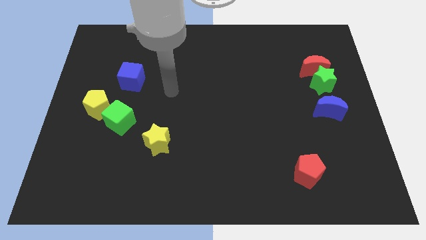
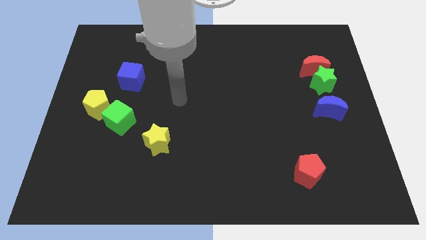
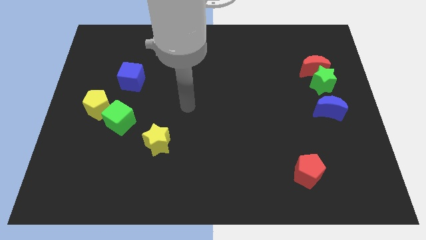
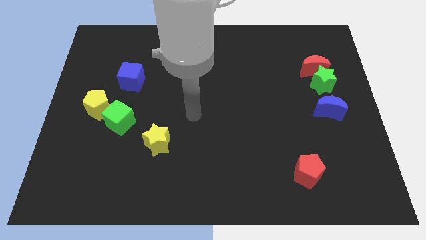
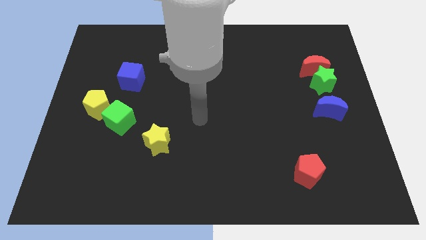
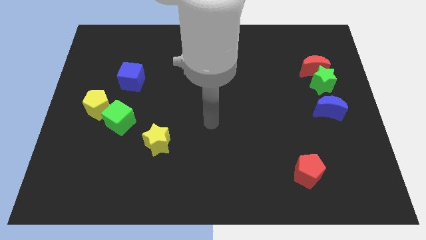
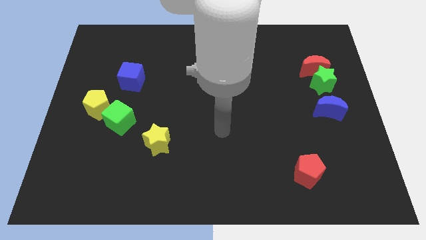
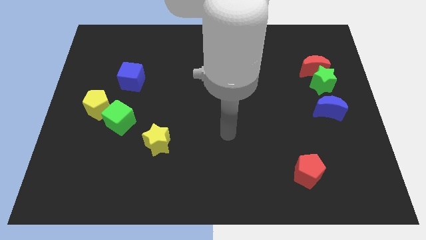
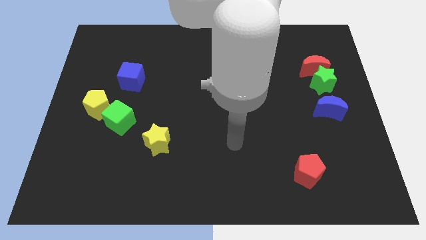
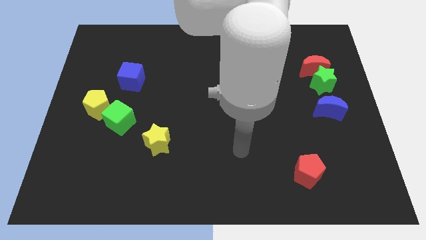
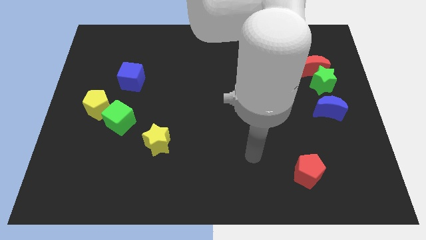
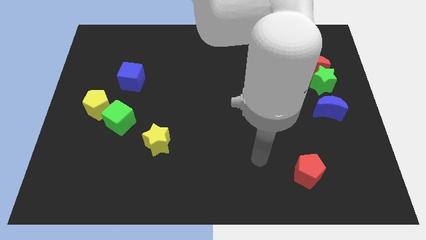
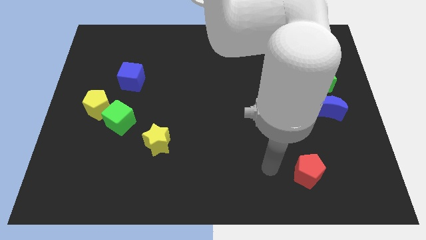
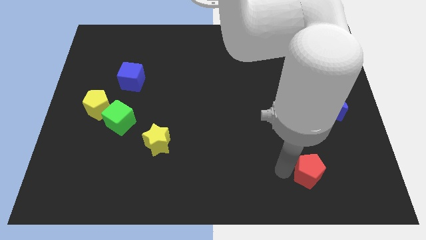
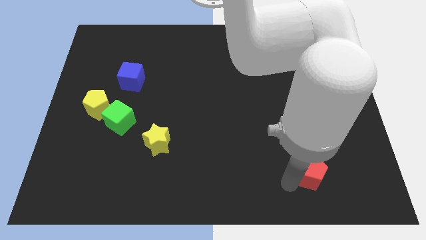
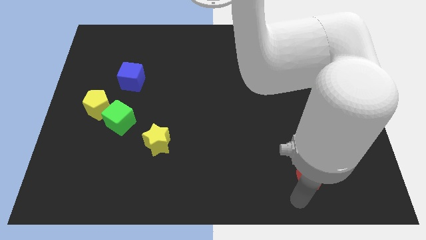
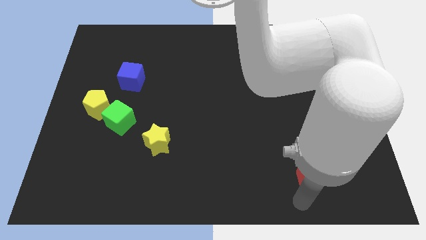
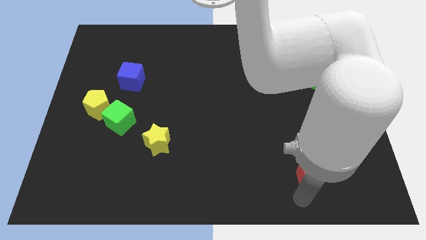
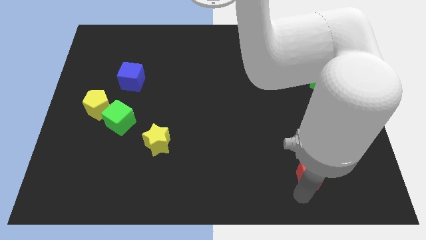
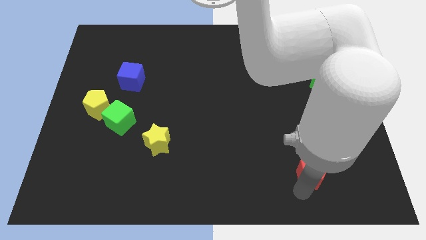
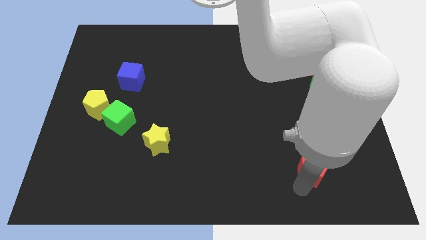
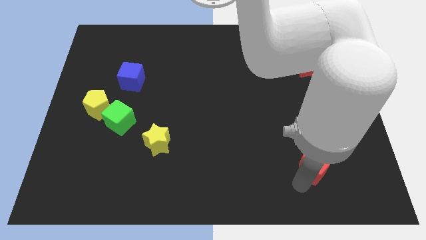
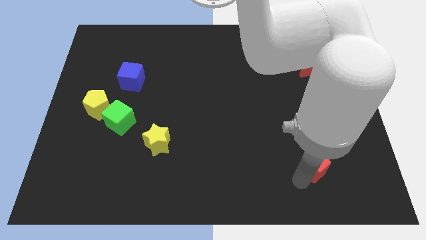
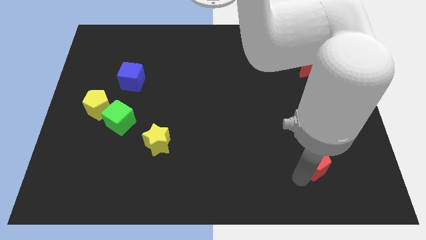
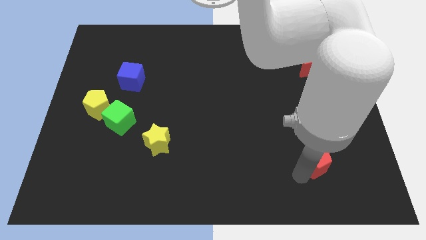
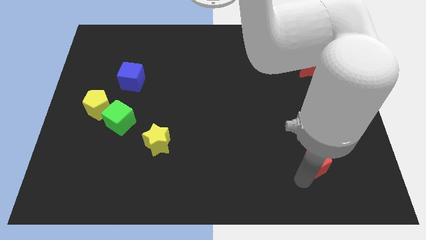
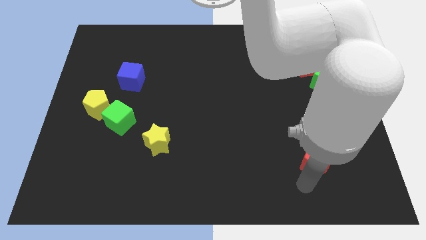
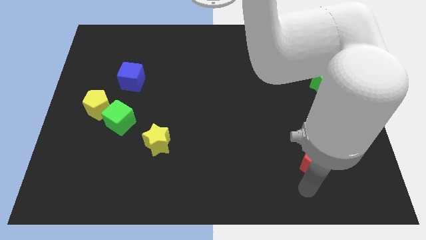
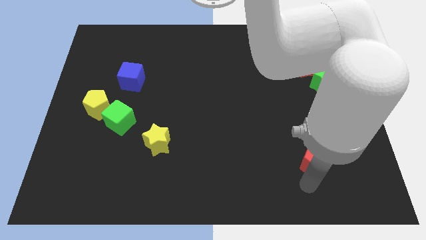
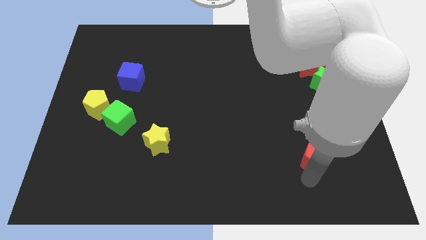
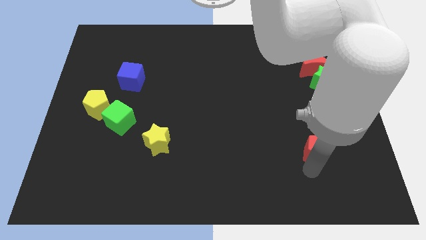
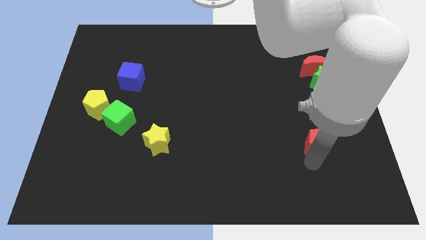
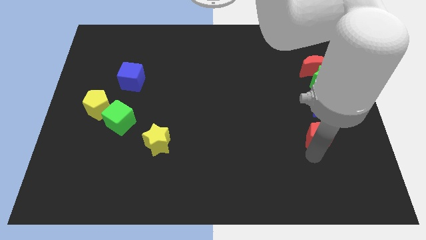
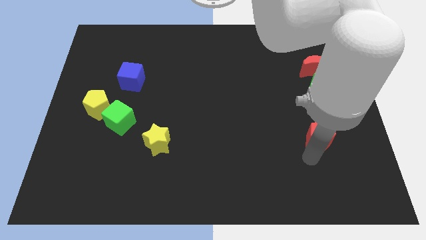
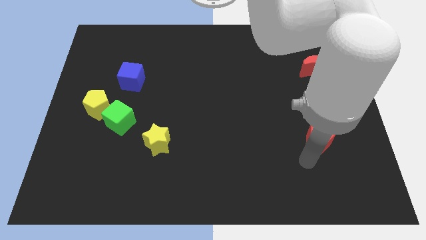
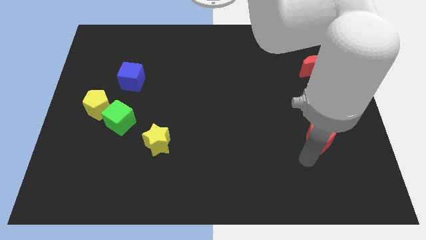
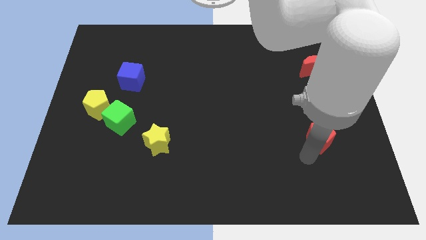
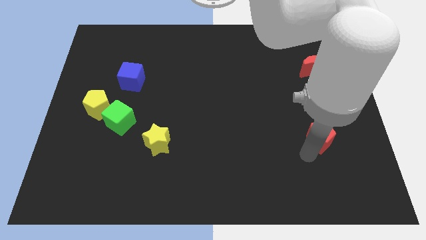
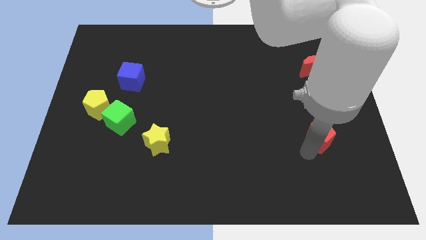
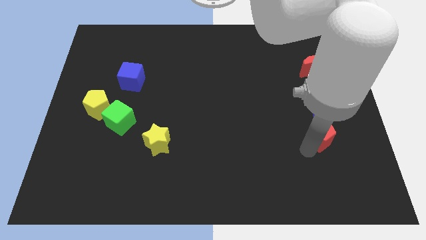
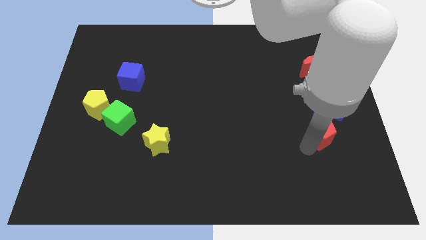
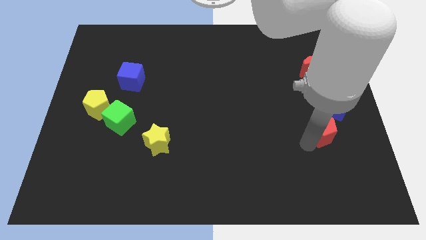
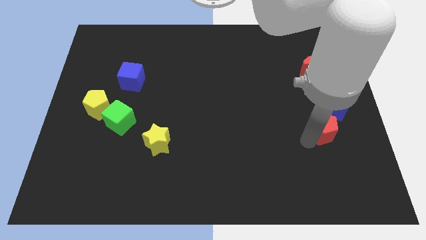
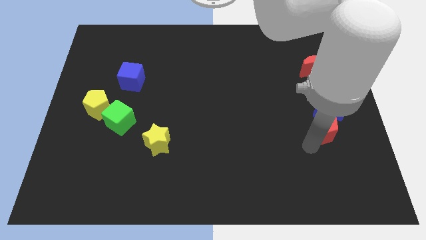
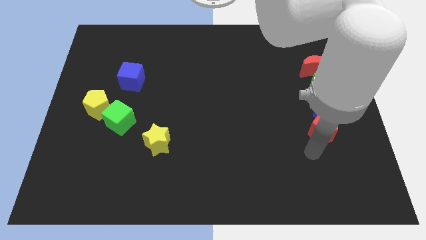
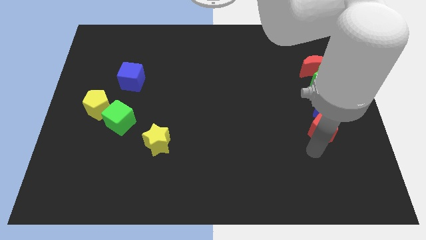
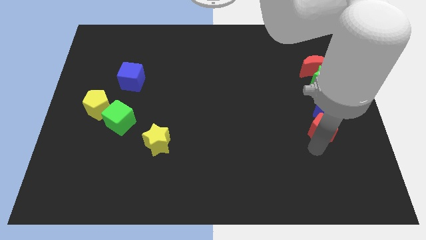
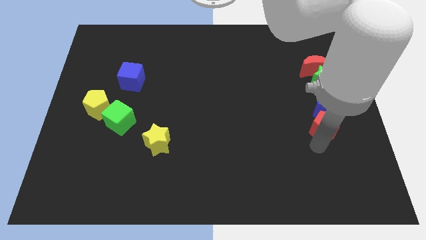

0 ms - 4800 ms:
move the red pentagon close to the blue moon

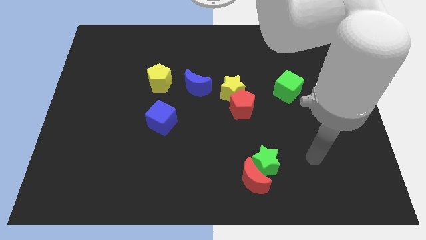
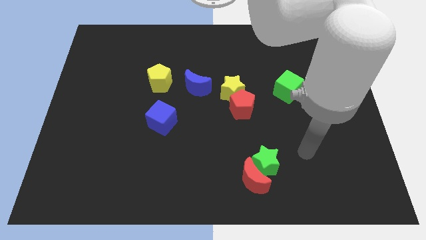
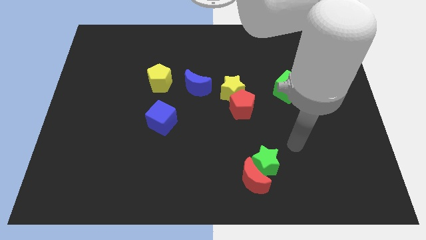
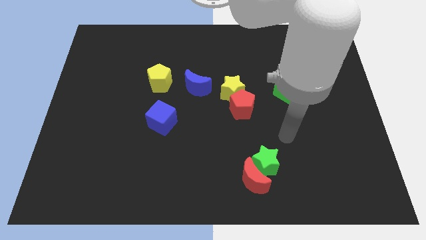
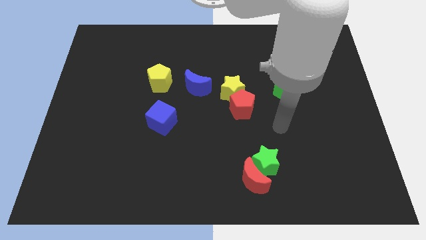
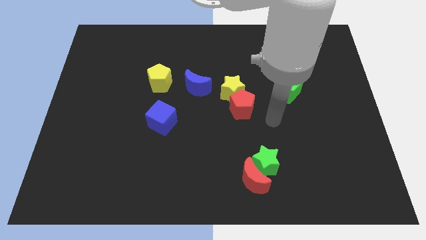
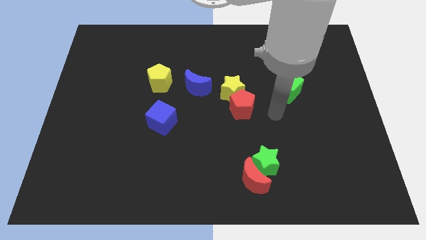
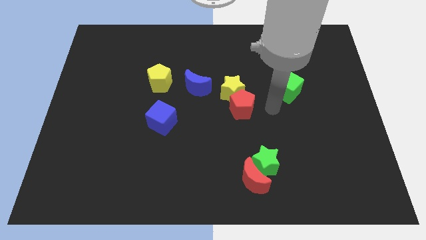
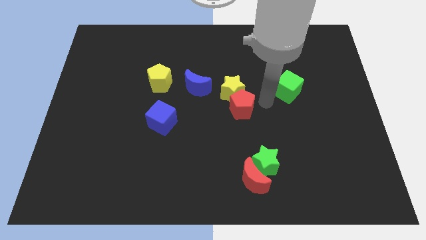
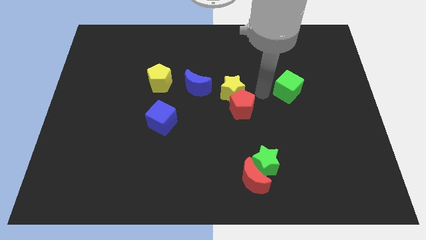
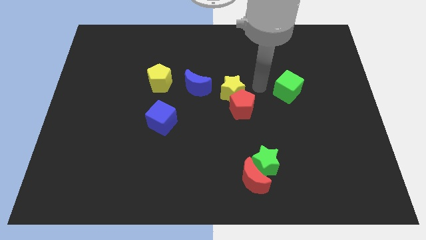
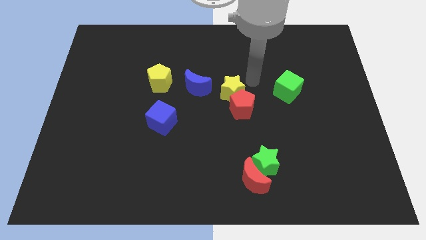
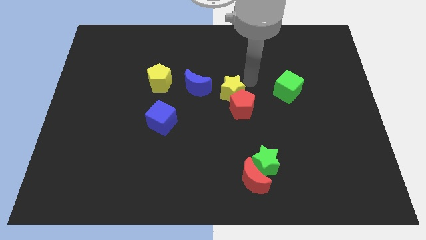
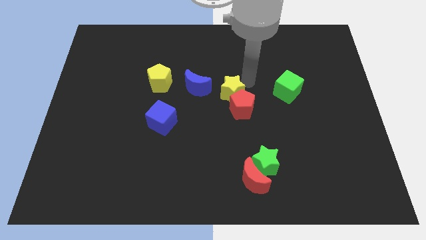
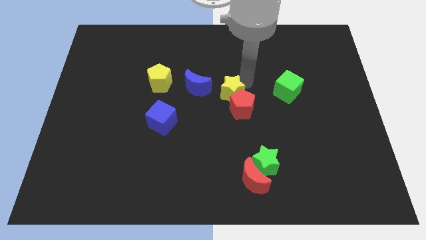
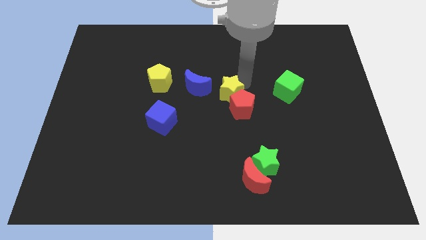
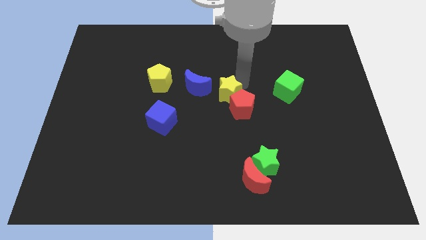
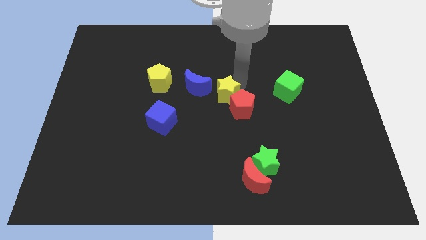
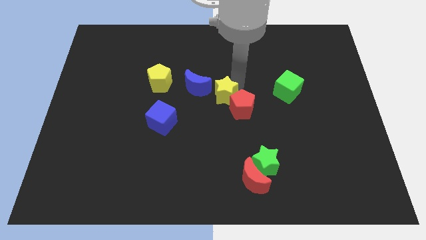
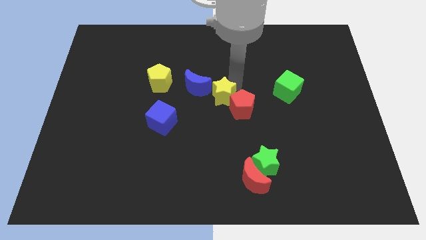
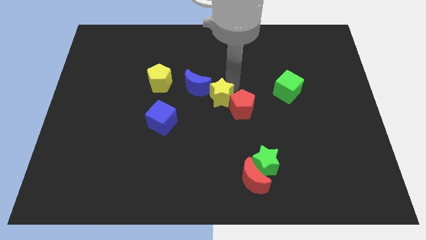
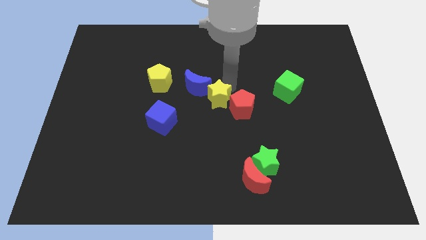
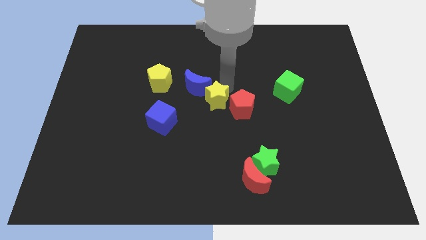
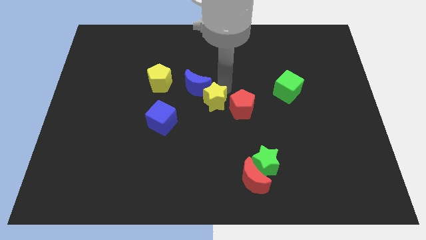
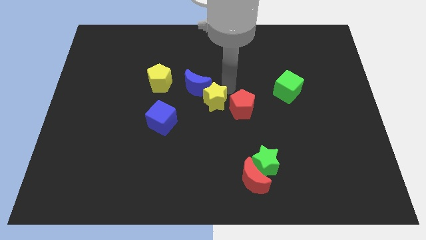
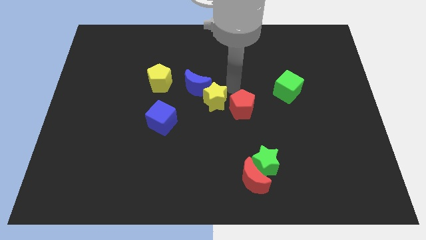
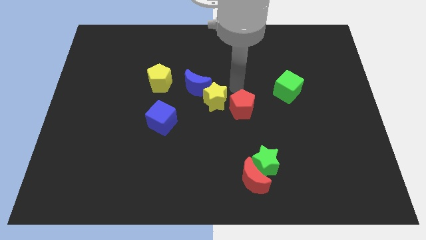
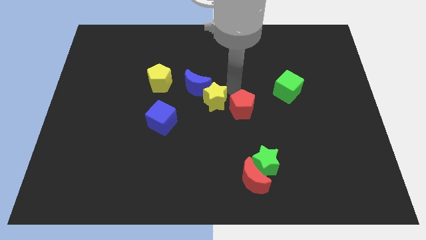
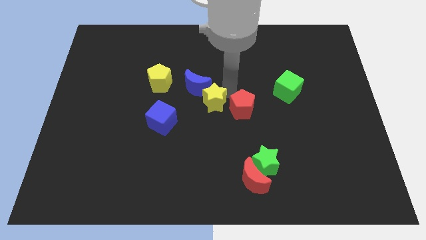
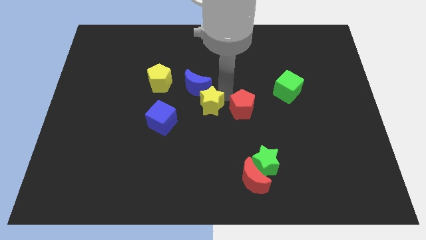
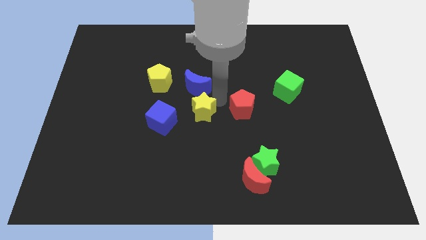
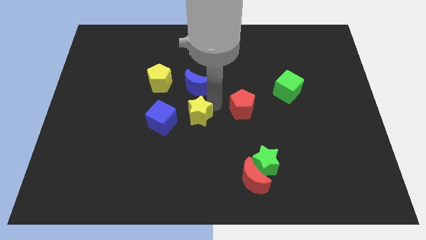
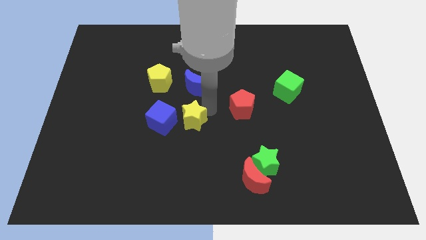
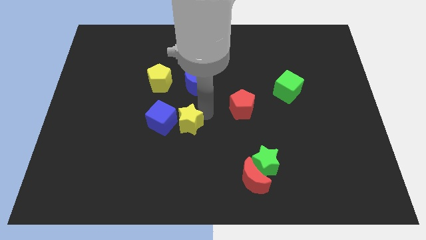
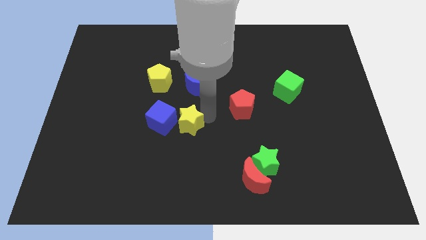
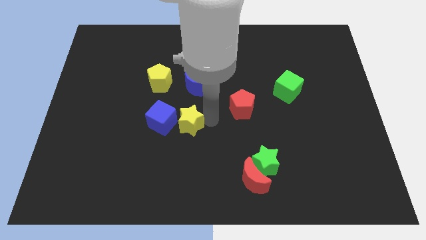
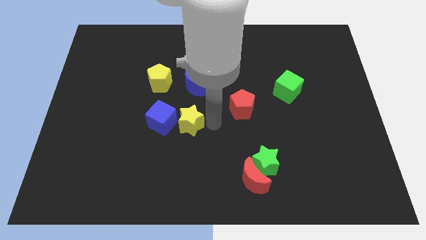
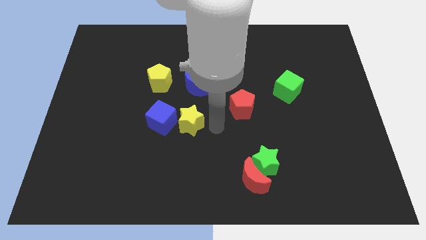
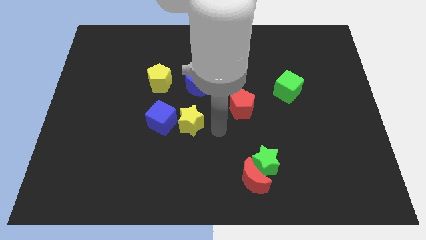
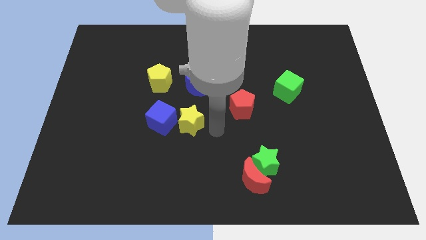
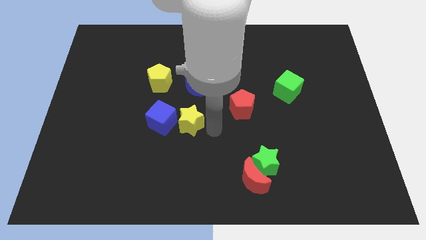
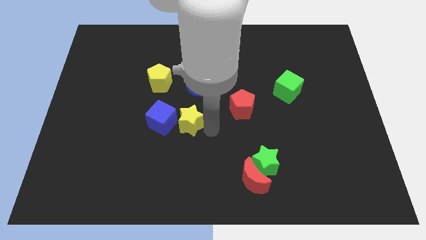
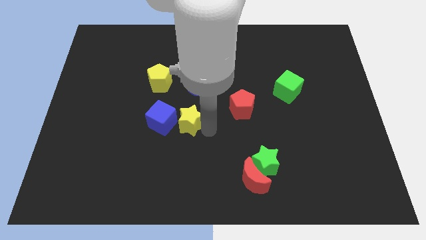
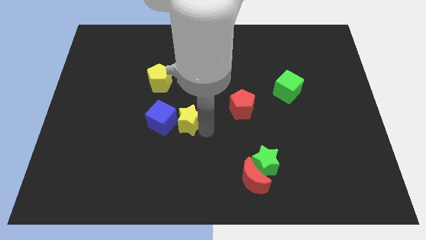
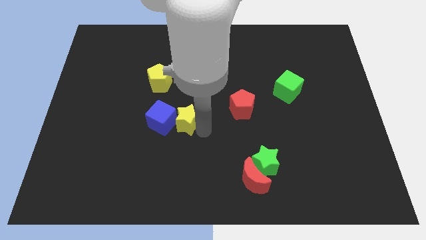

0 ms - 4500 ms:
put the yellow star next to the blue cube
